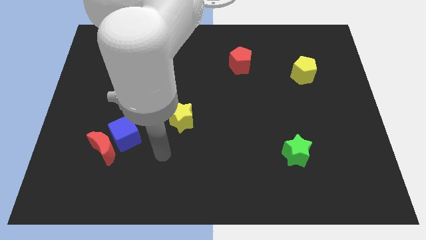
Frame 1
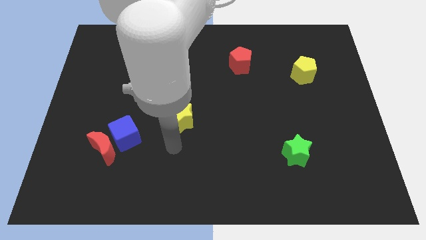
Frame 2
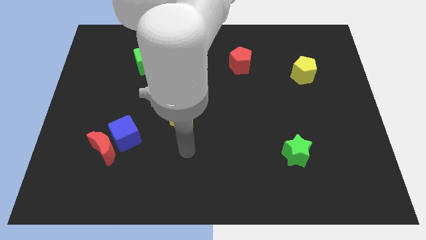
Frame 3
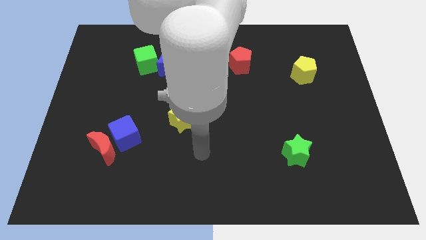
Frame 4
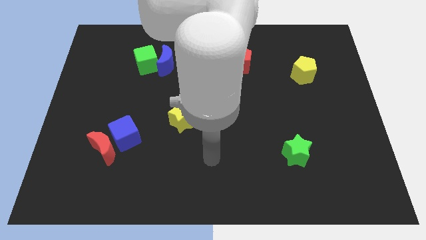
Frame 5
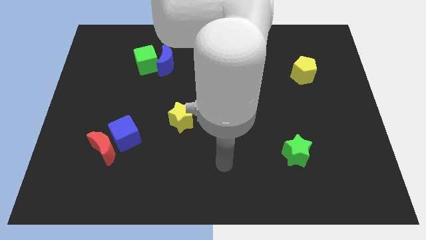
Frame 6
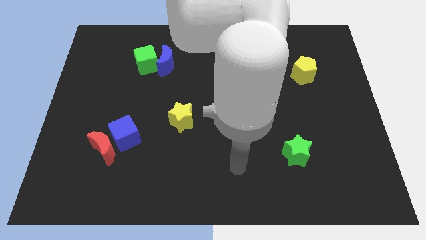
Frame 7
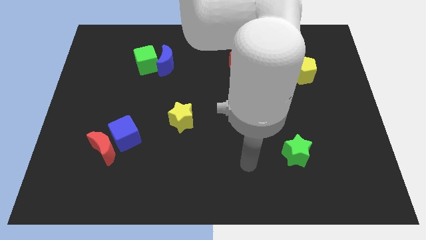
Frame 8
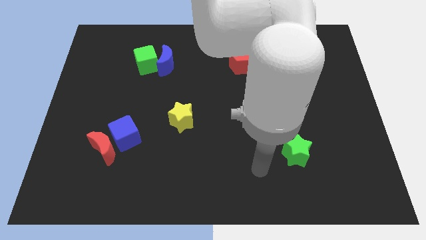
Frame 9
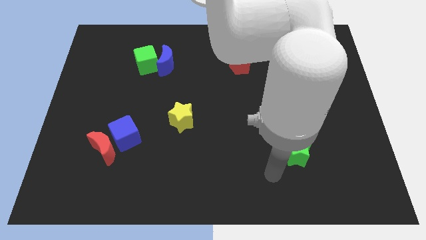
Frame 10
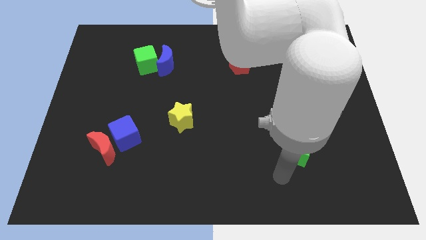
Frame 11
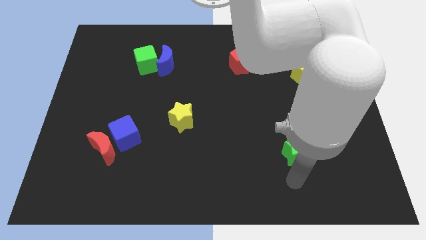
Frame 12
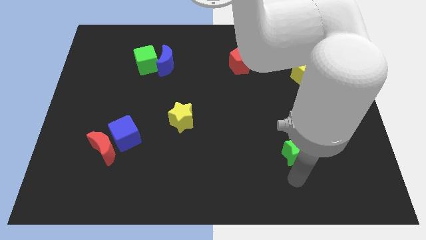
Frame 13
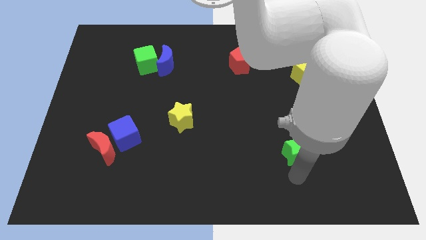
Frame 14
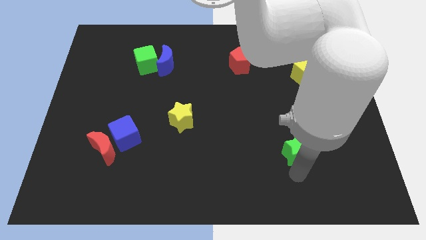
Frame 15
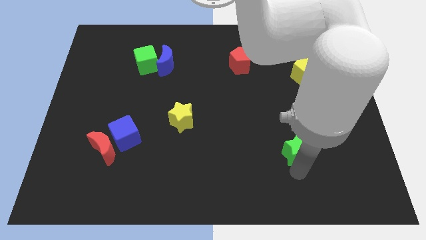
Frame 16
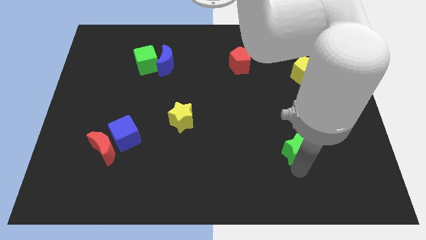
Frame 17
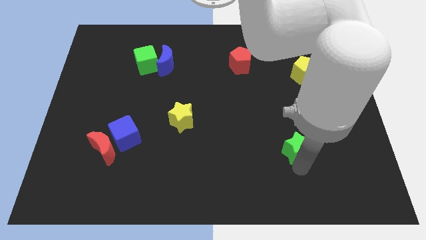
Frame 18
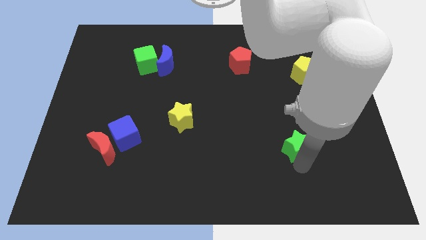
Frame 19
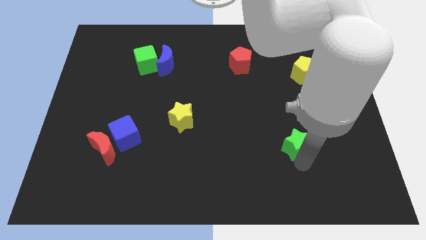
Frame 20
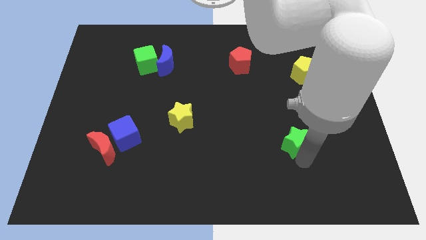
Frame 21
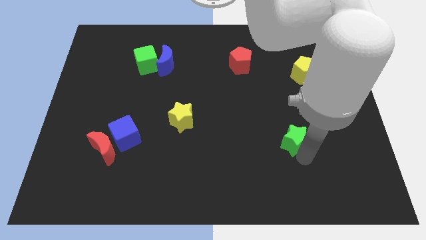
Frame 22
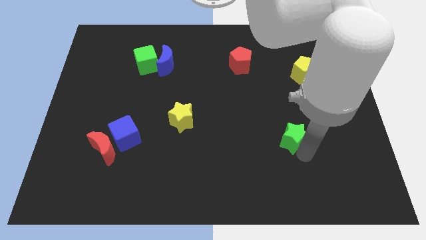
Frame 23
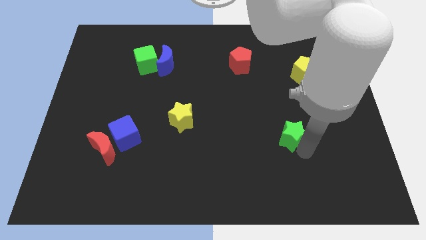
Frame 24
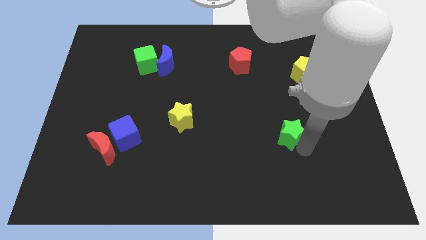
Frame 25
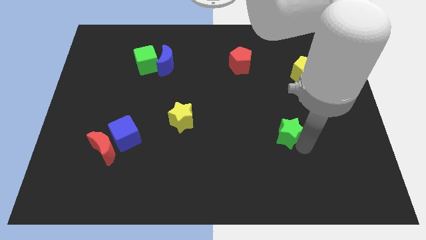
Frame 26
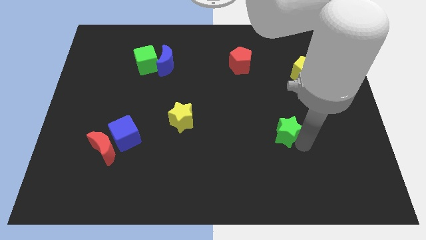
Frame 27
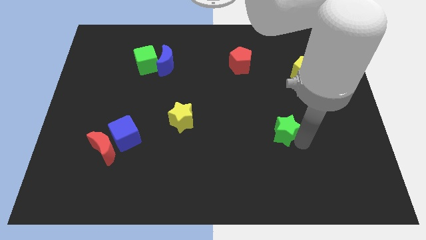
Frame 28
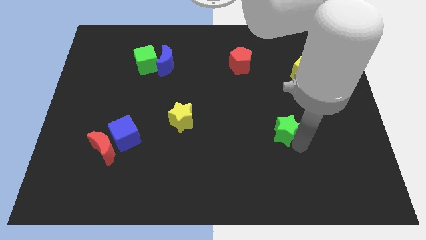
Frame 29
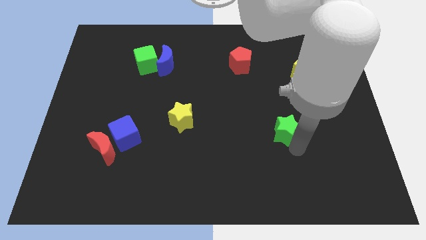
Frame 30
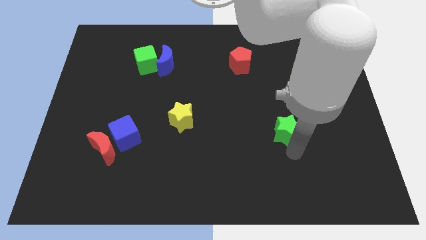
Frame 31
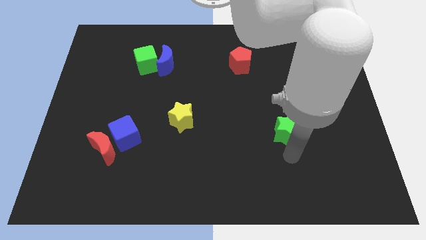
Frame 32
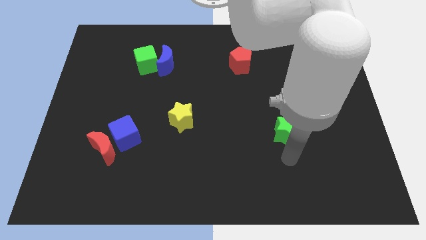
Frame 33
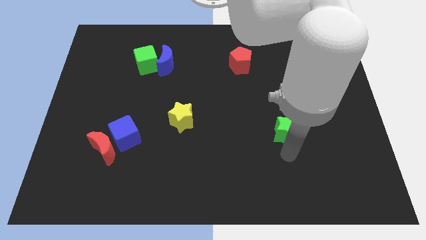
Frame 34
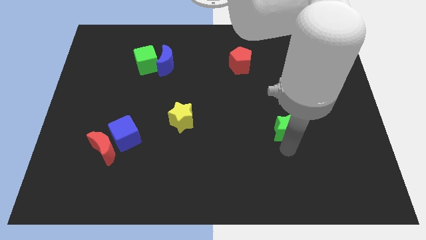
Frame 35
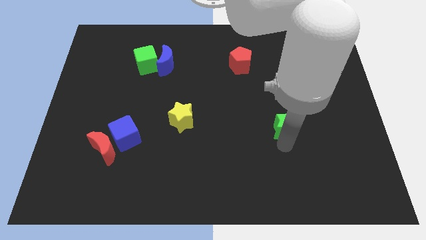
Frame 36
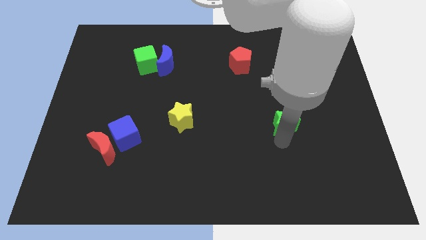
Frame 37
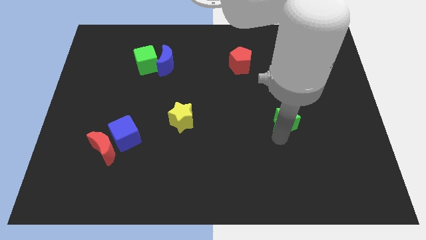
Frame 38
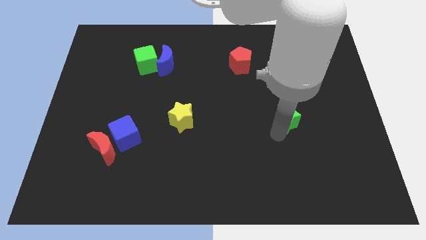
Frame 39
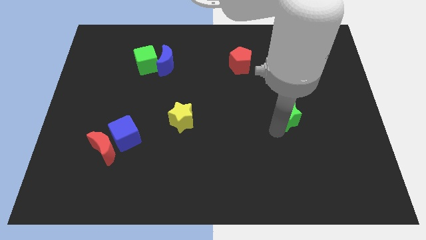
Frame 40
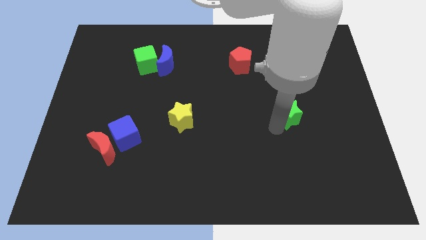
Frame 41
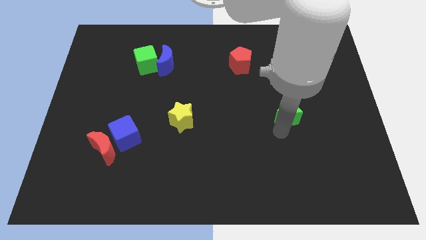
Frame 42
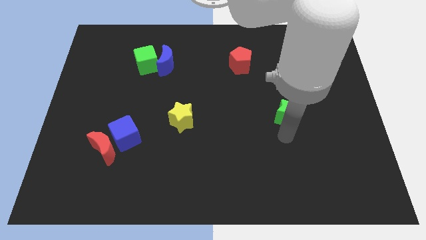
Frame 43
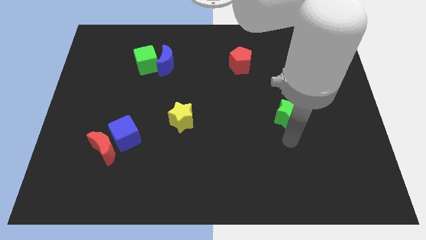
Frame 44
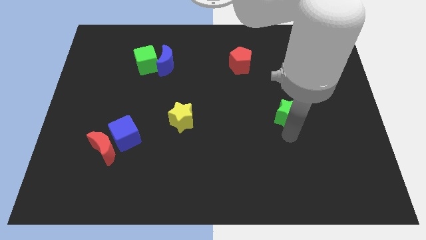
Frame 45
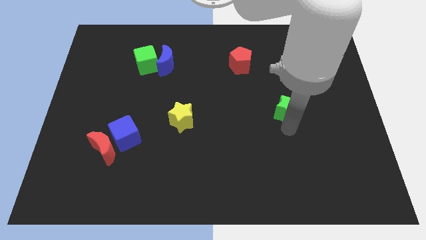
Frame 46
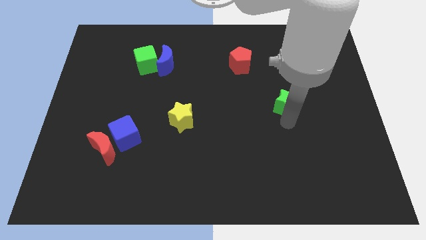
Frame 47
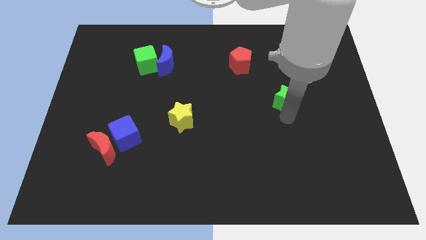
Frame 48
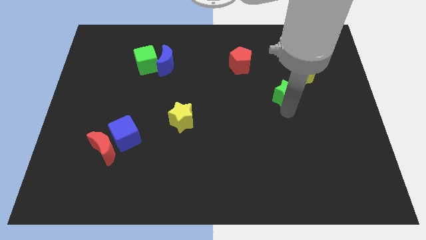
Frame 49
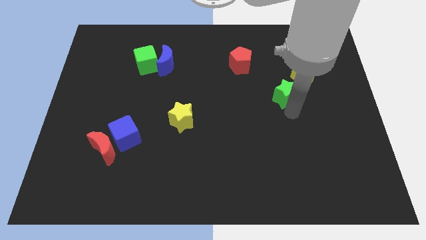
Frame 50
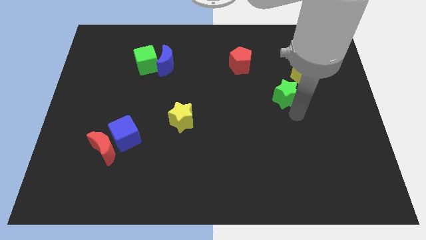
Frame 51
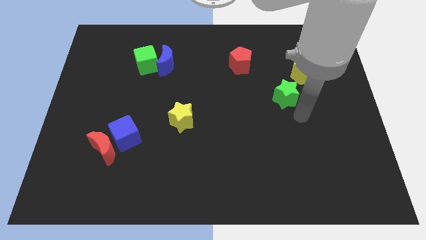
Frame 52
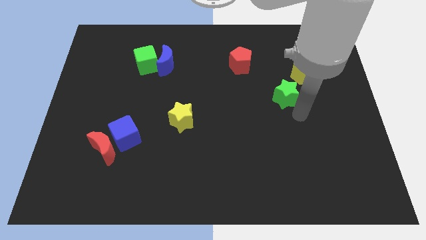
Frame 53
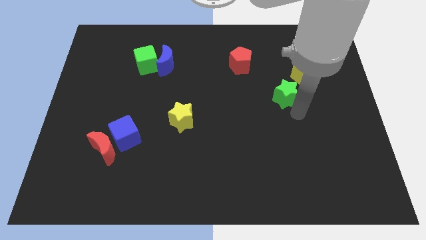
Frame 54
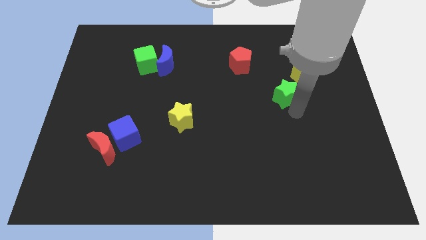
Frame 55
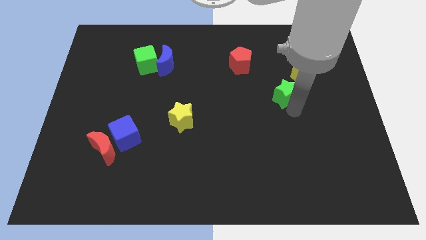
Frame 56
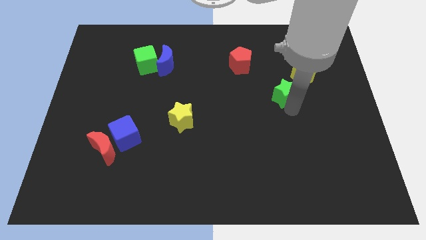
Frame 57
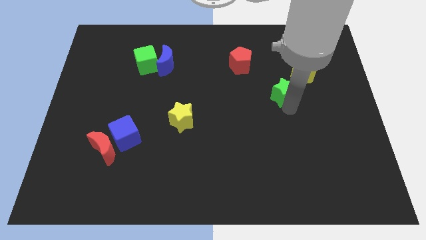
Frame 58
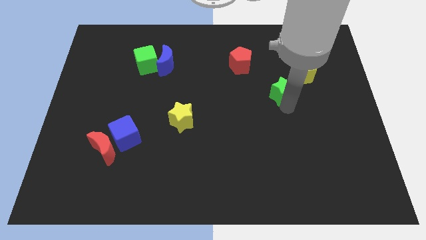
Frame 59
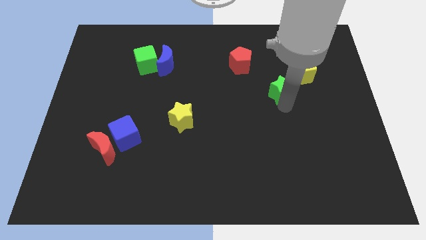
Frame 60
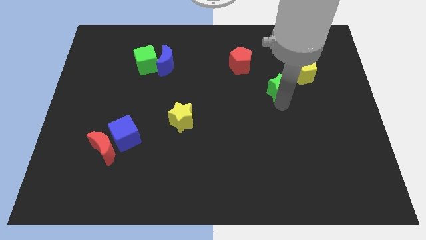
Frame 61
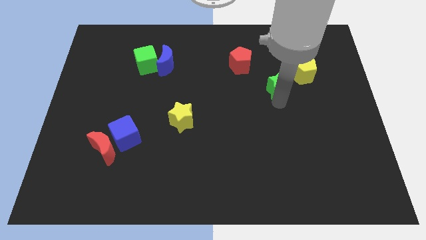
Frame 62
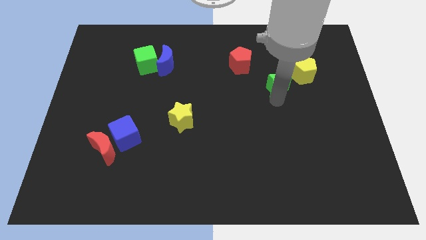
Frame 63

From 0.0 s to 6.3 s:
move the green star just left of the yellow pentagon
